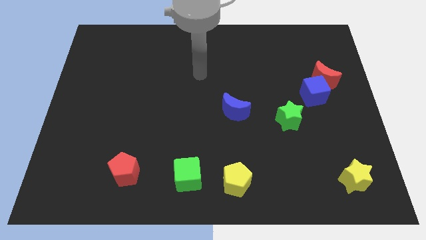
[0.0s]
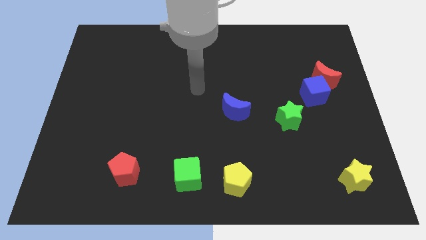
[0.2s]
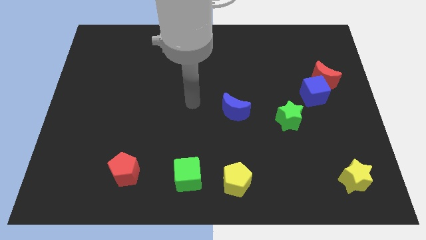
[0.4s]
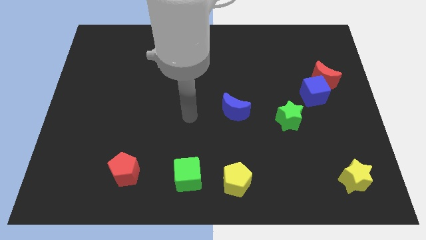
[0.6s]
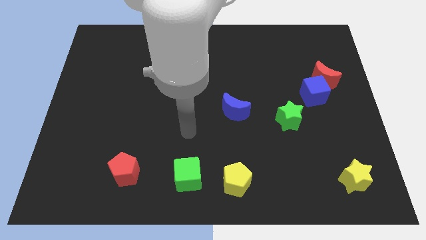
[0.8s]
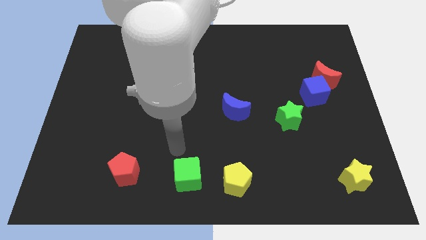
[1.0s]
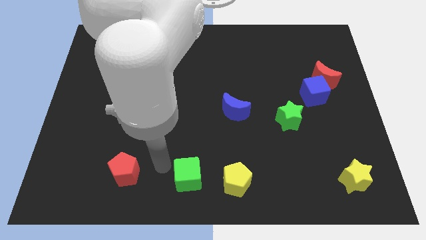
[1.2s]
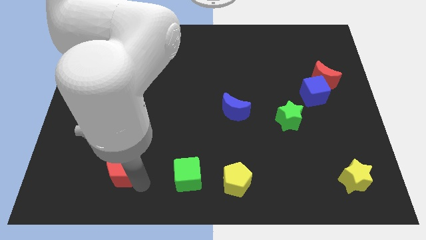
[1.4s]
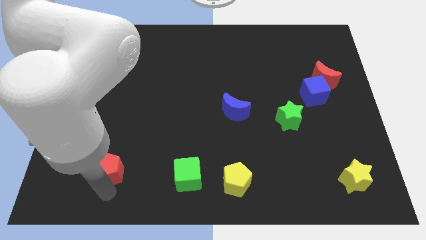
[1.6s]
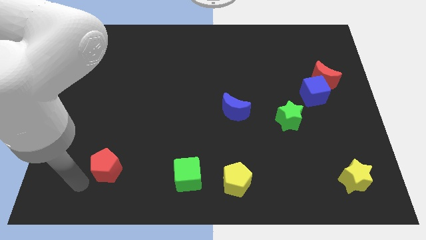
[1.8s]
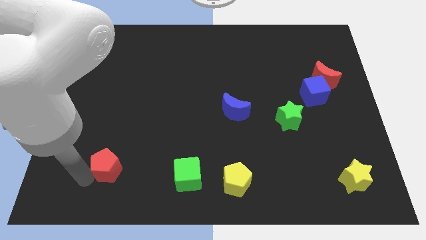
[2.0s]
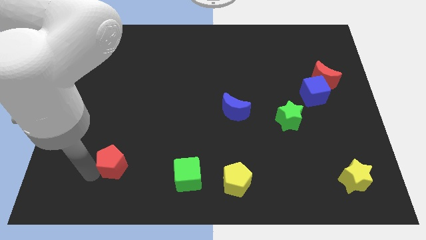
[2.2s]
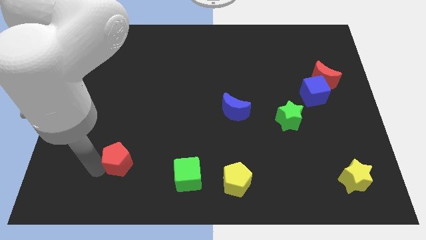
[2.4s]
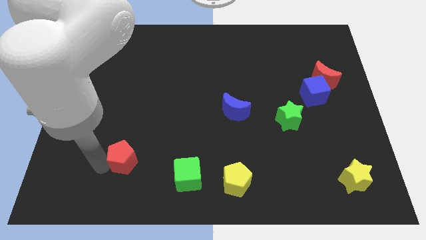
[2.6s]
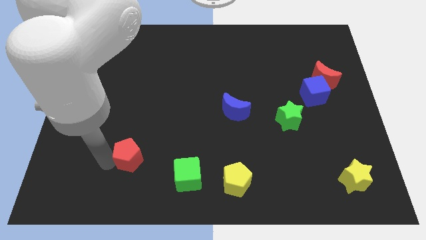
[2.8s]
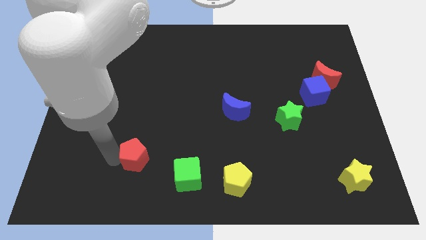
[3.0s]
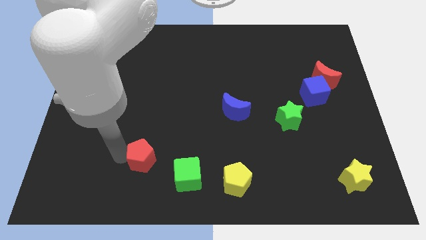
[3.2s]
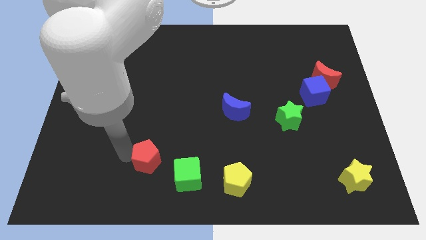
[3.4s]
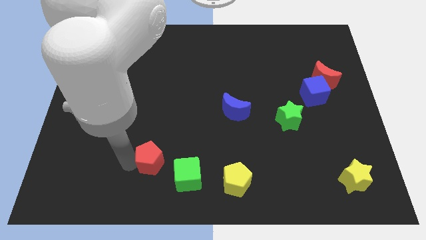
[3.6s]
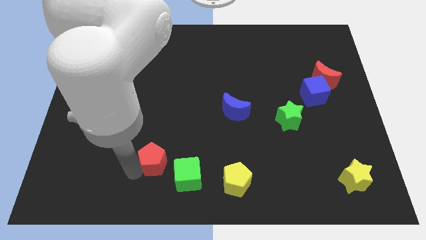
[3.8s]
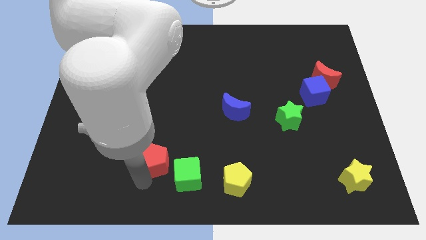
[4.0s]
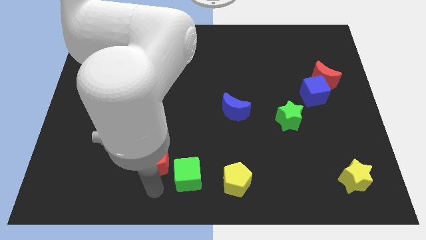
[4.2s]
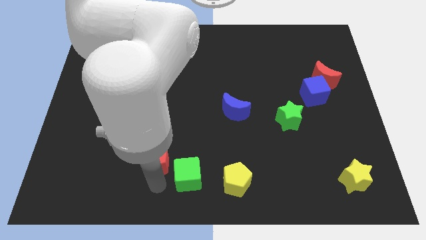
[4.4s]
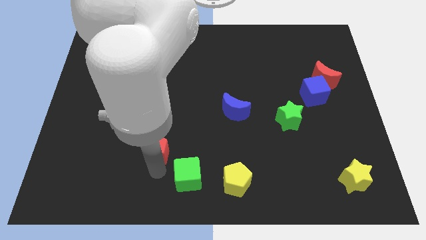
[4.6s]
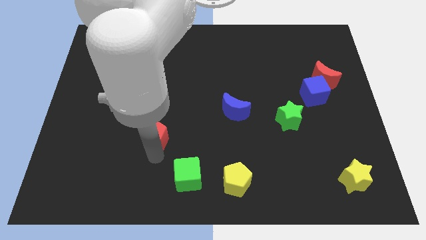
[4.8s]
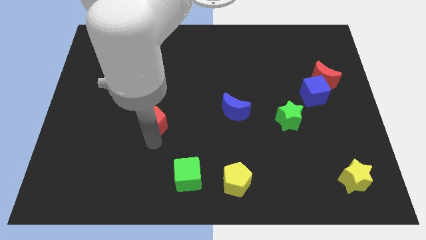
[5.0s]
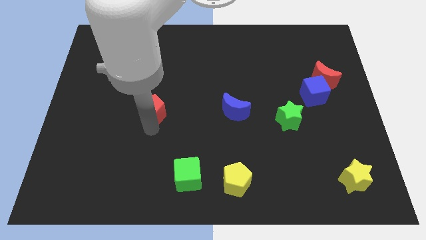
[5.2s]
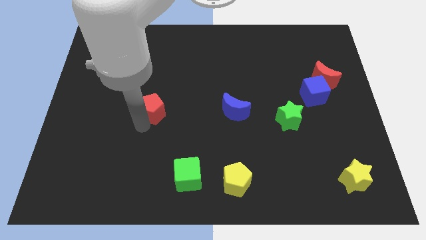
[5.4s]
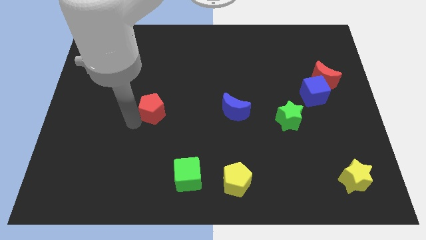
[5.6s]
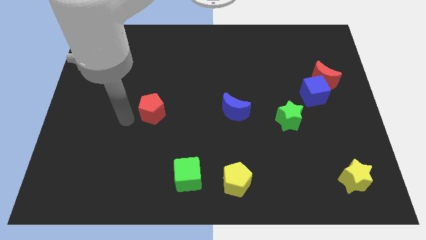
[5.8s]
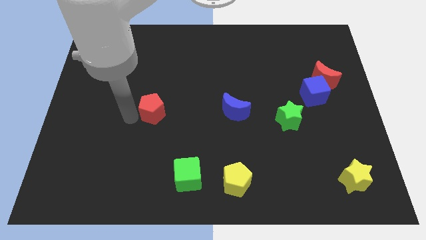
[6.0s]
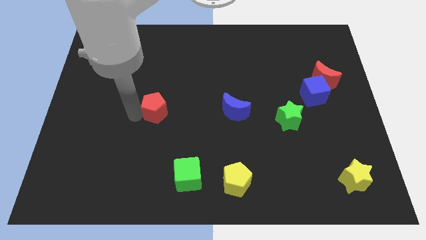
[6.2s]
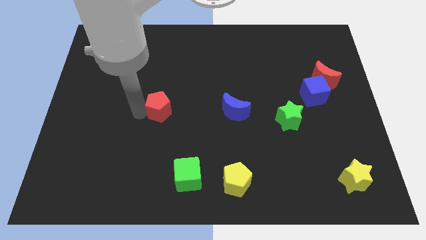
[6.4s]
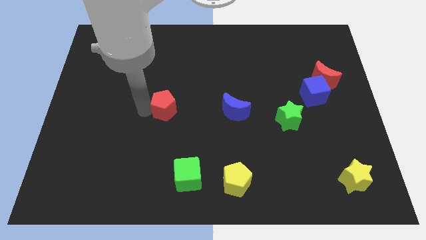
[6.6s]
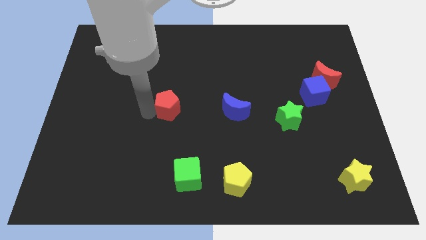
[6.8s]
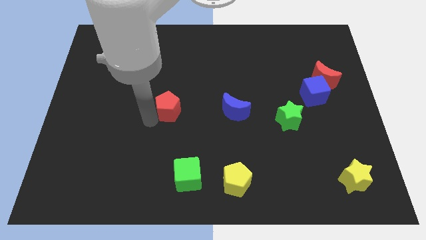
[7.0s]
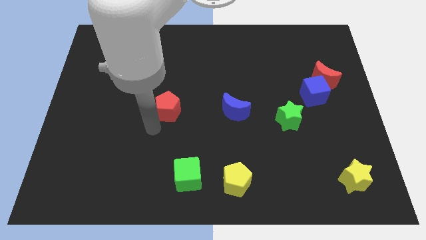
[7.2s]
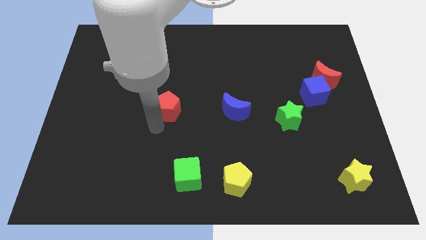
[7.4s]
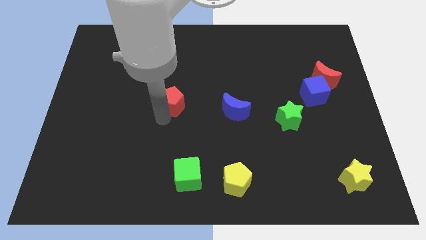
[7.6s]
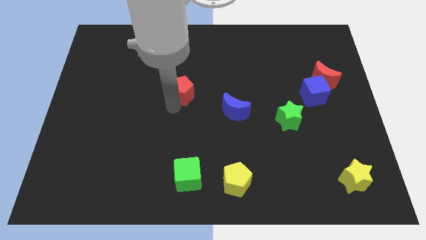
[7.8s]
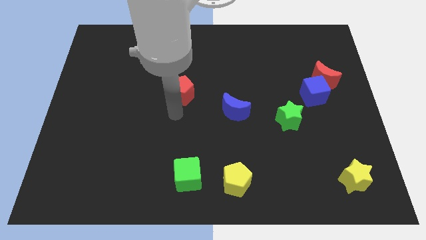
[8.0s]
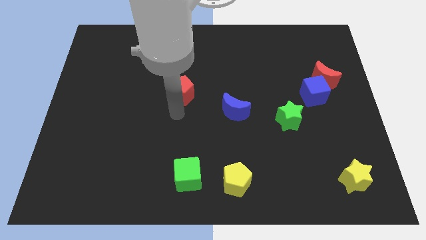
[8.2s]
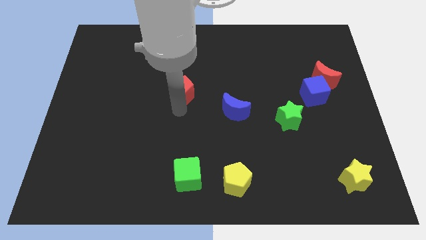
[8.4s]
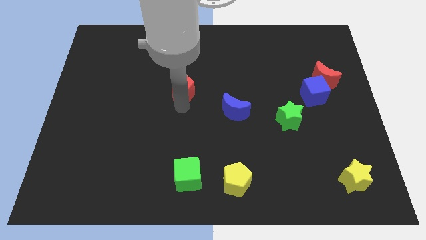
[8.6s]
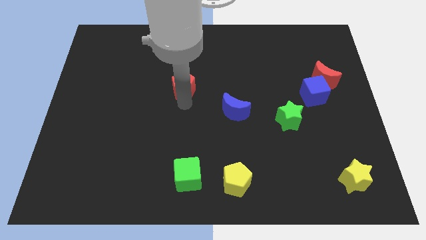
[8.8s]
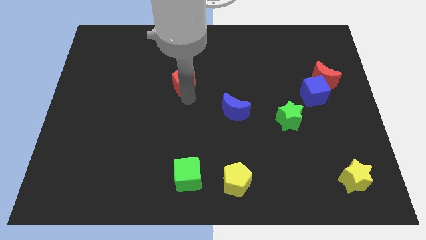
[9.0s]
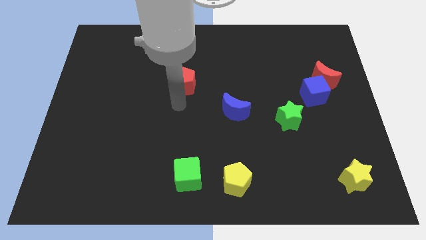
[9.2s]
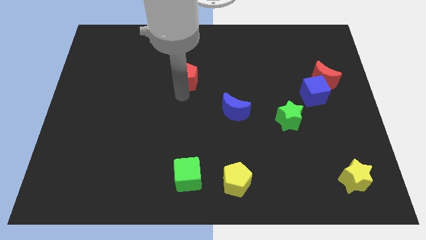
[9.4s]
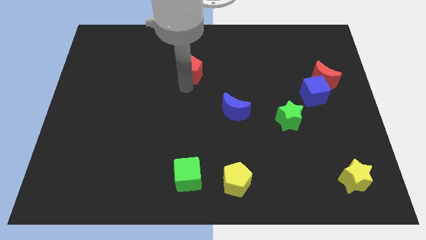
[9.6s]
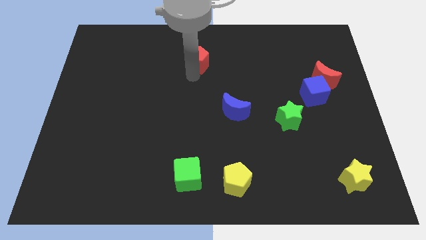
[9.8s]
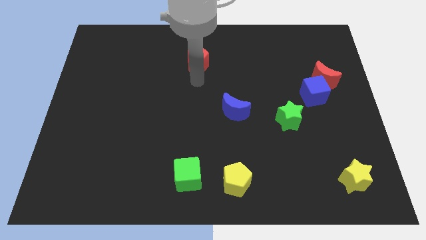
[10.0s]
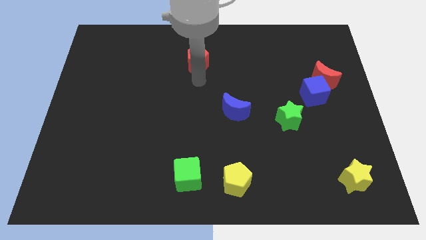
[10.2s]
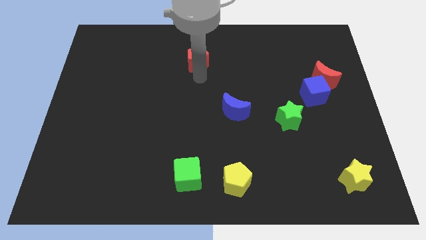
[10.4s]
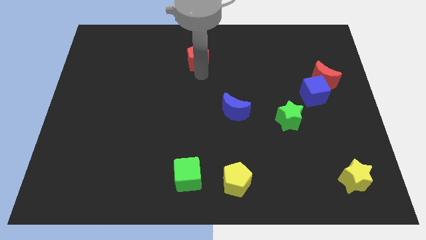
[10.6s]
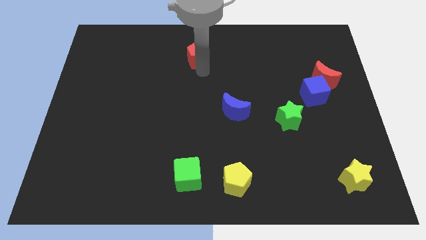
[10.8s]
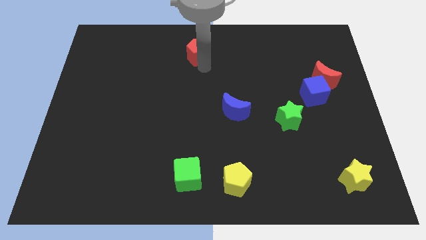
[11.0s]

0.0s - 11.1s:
push the red pentagon to the towards your base

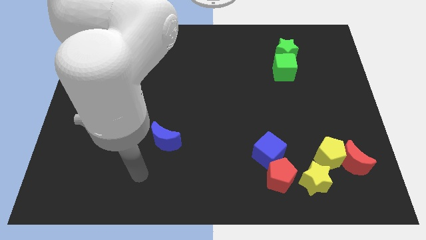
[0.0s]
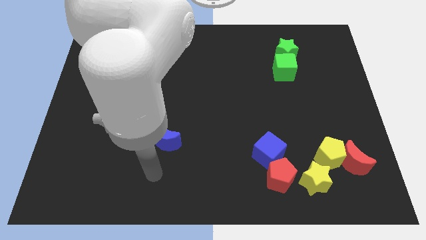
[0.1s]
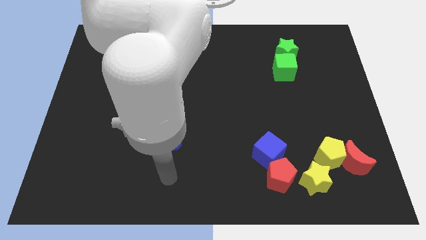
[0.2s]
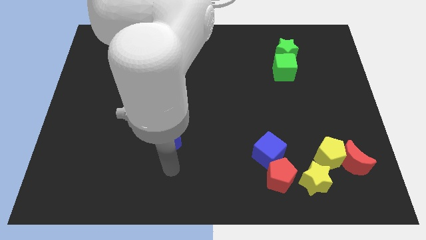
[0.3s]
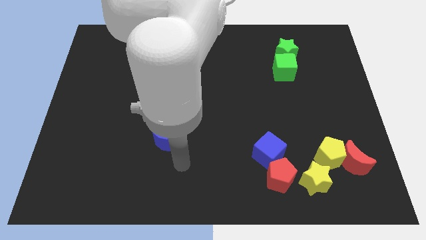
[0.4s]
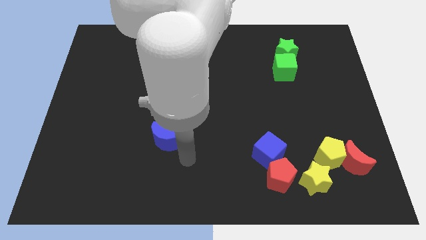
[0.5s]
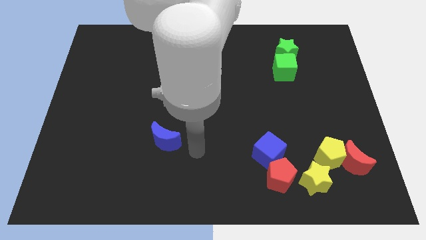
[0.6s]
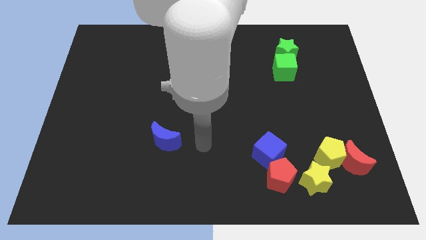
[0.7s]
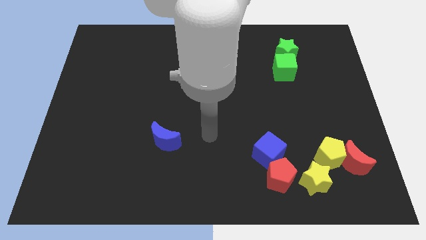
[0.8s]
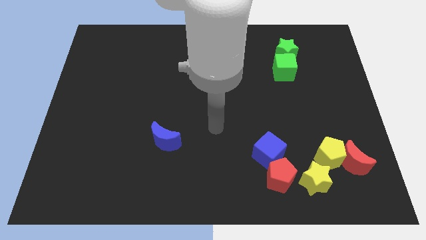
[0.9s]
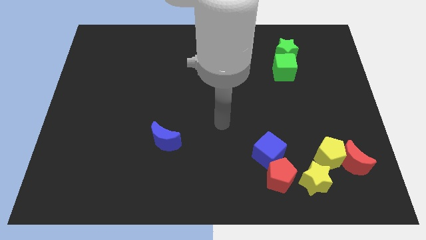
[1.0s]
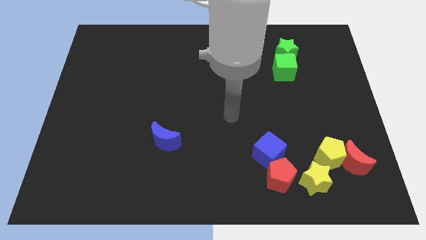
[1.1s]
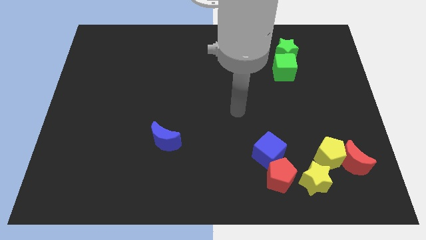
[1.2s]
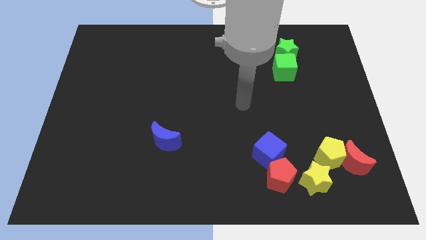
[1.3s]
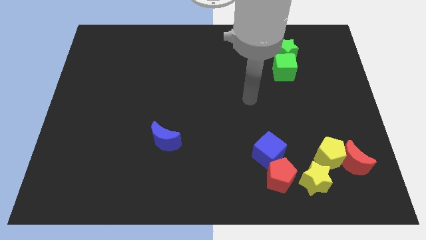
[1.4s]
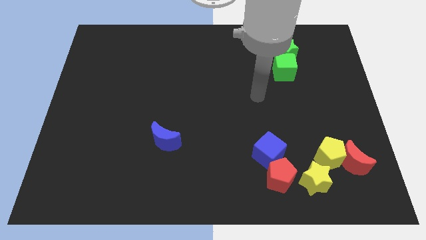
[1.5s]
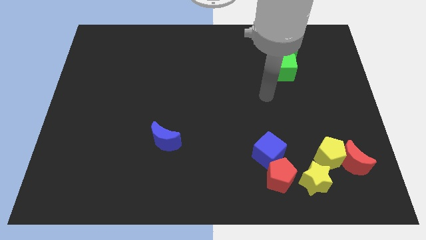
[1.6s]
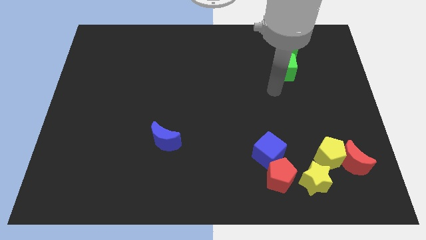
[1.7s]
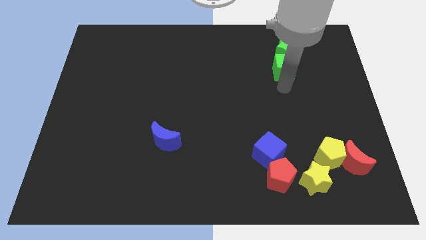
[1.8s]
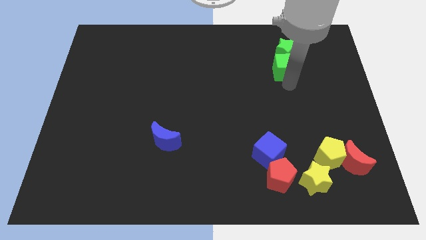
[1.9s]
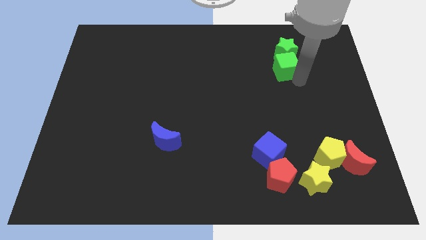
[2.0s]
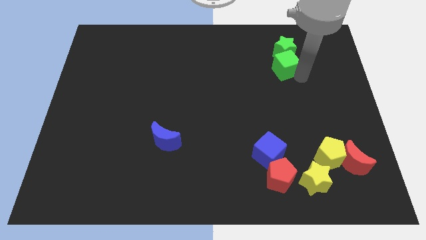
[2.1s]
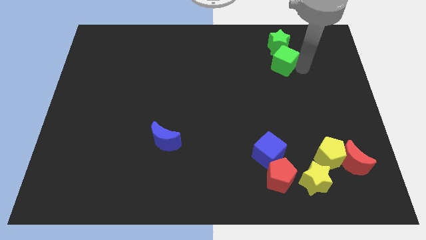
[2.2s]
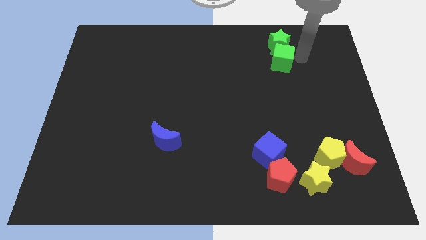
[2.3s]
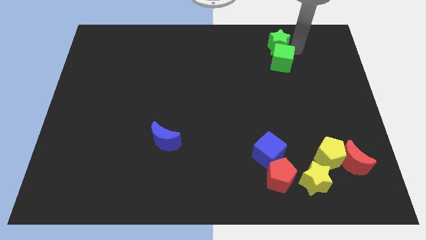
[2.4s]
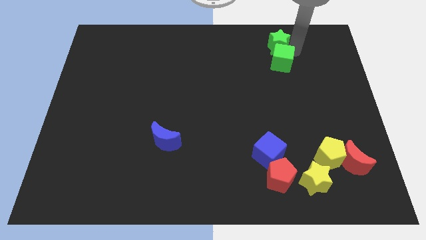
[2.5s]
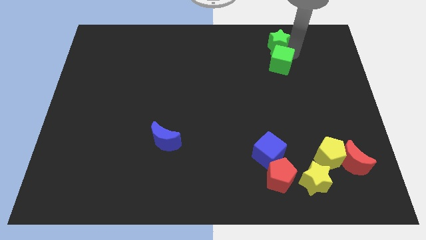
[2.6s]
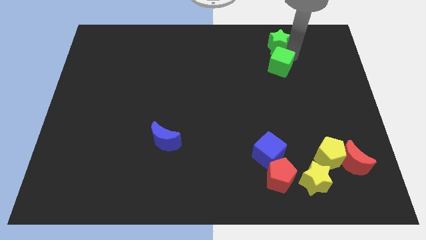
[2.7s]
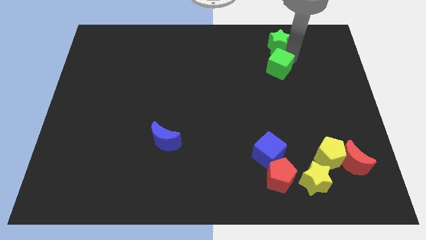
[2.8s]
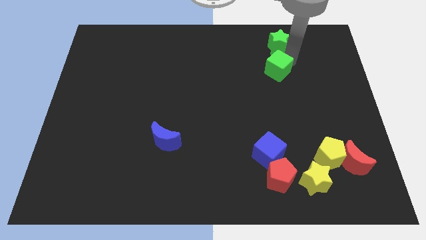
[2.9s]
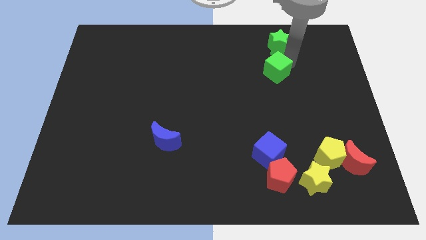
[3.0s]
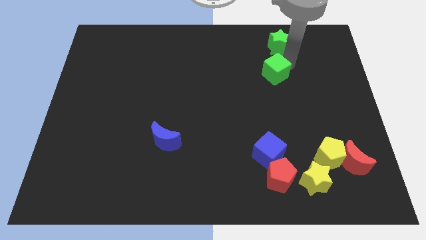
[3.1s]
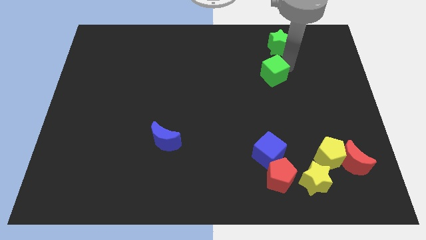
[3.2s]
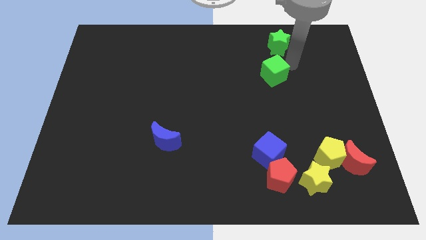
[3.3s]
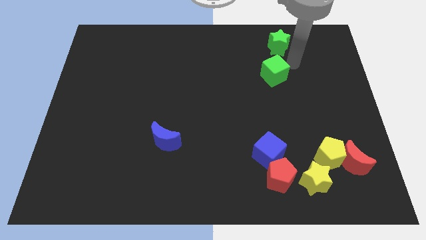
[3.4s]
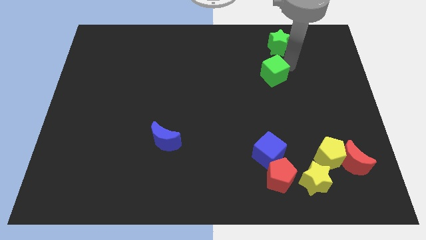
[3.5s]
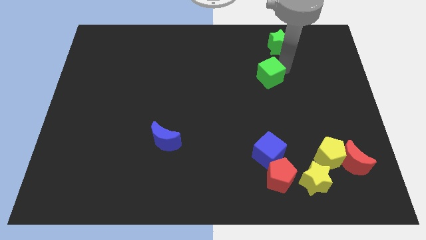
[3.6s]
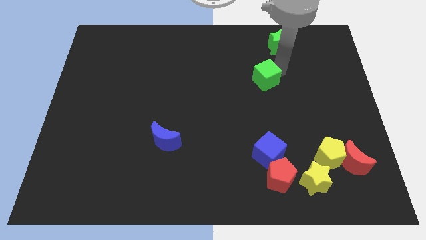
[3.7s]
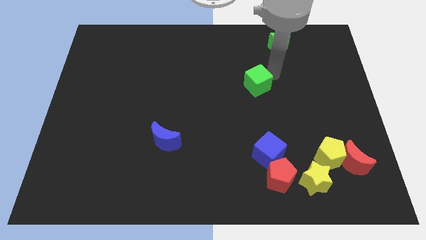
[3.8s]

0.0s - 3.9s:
push the green cube to the center of the board
